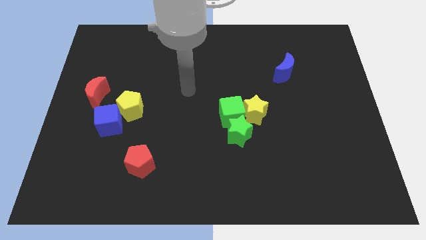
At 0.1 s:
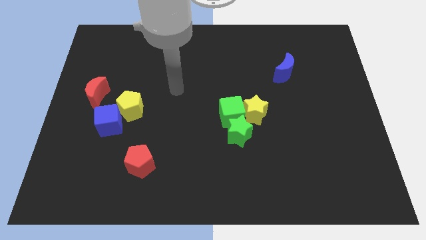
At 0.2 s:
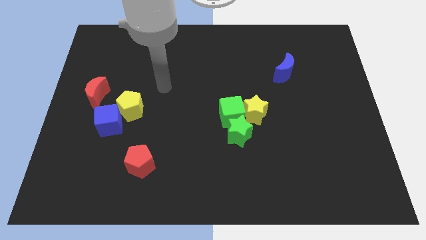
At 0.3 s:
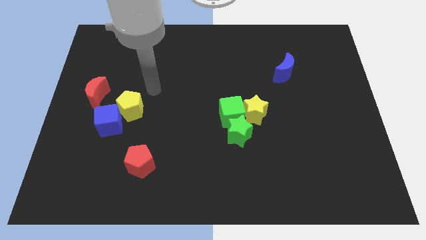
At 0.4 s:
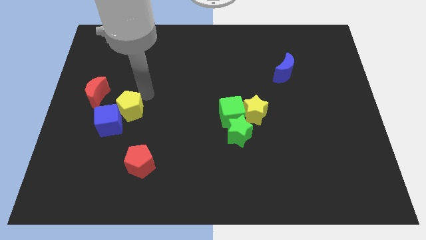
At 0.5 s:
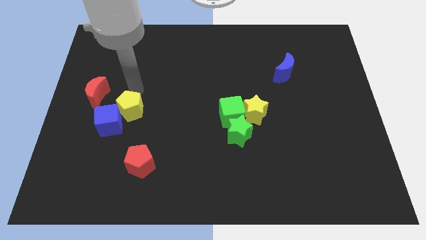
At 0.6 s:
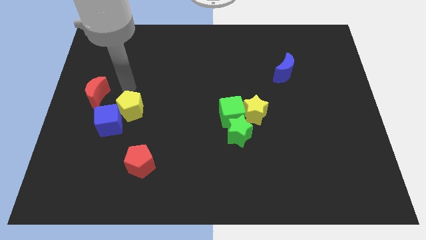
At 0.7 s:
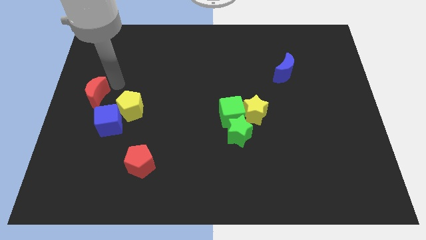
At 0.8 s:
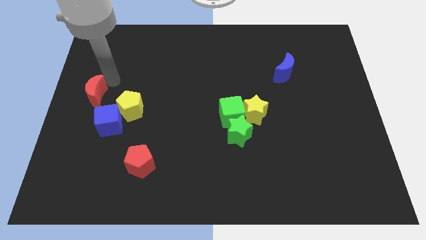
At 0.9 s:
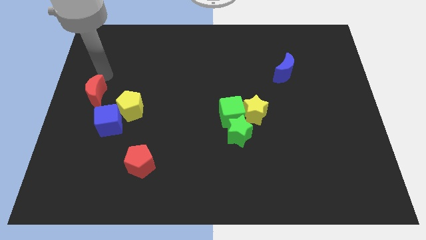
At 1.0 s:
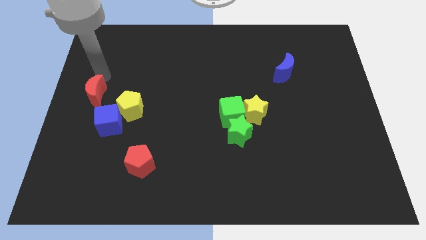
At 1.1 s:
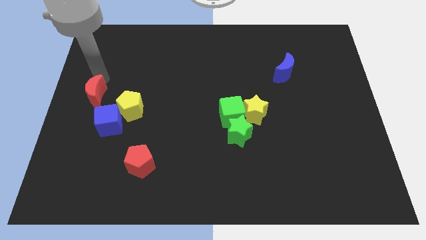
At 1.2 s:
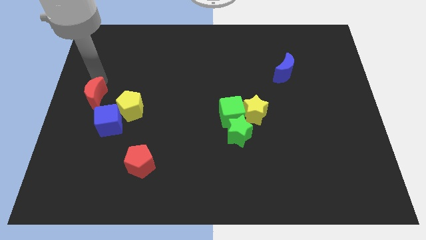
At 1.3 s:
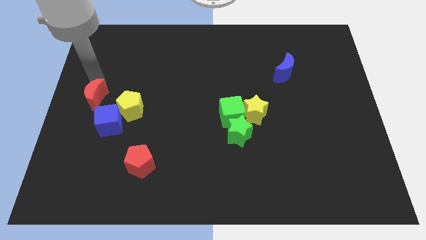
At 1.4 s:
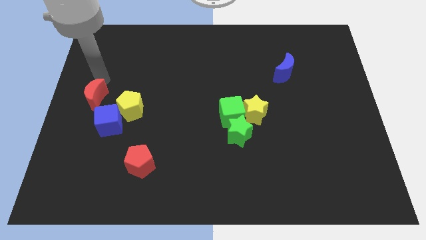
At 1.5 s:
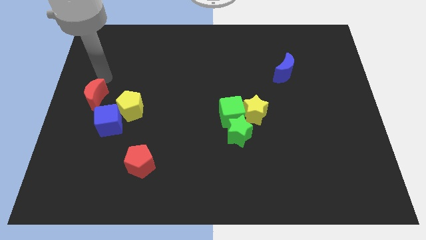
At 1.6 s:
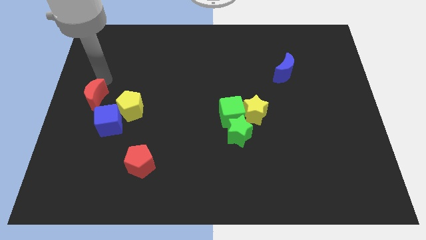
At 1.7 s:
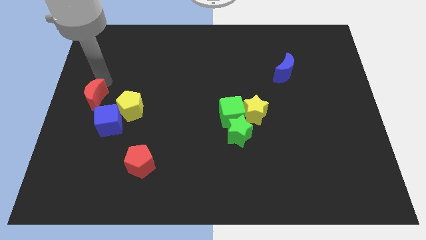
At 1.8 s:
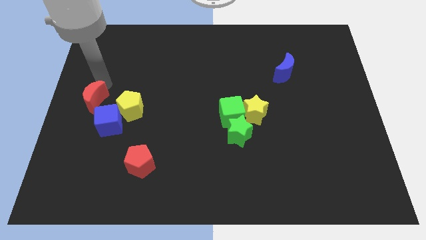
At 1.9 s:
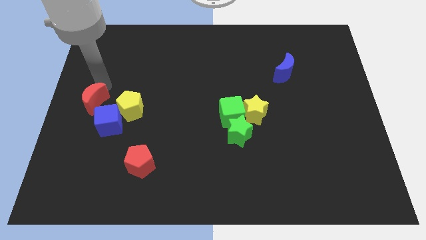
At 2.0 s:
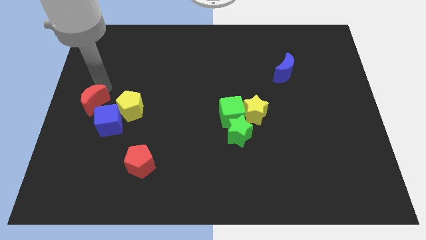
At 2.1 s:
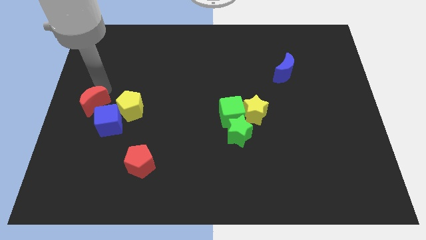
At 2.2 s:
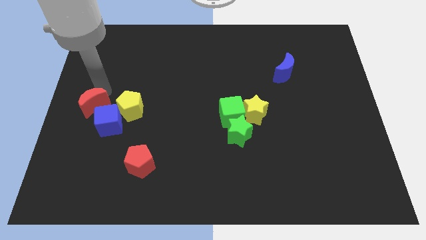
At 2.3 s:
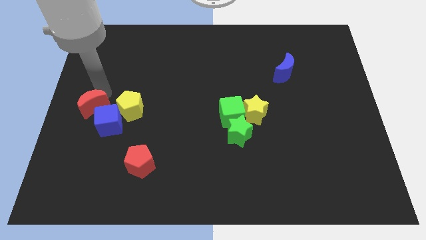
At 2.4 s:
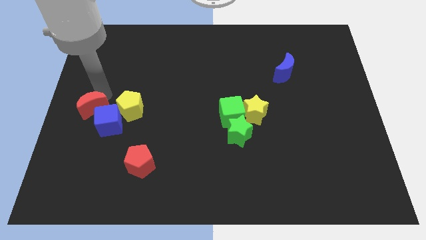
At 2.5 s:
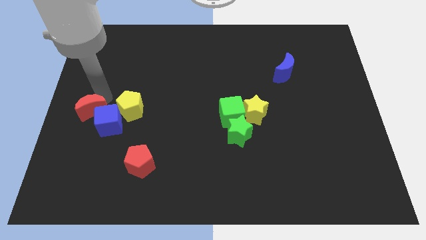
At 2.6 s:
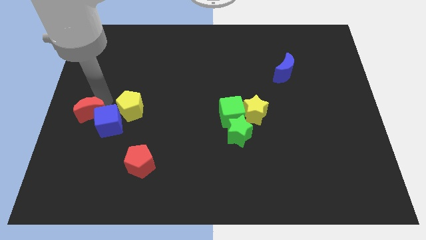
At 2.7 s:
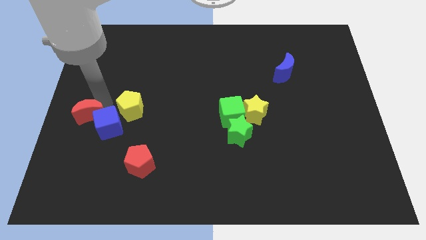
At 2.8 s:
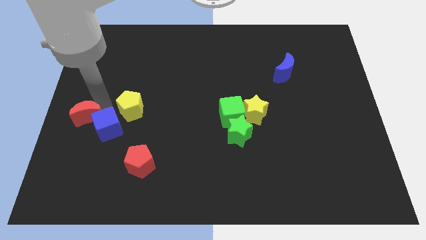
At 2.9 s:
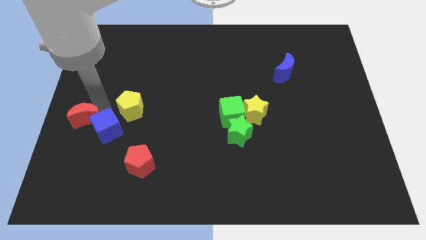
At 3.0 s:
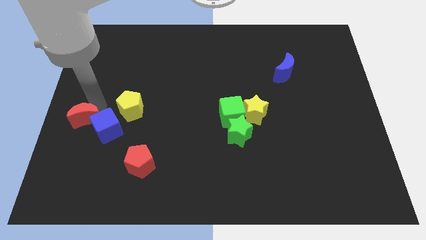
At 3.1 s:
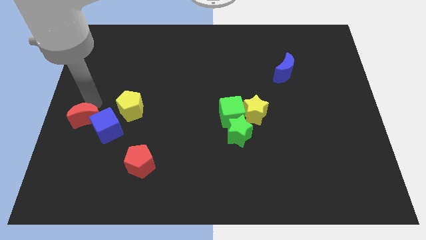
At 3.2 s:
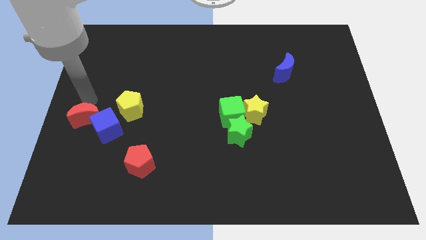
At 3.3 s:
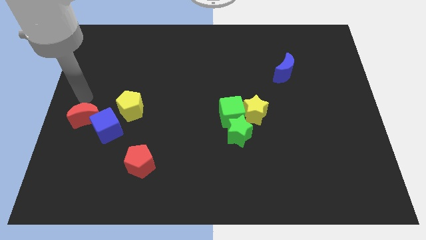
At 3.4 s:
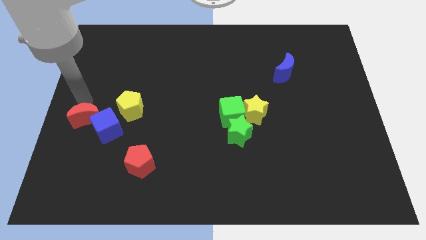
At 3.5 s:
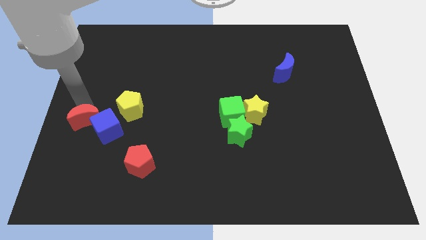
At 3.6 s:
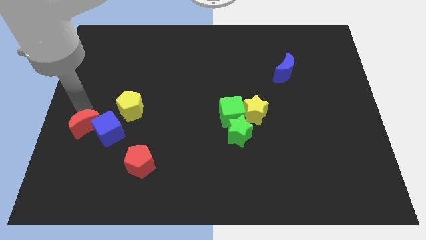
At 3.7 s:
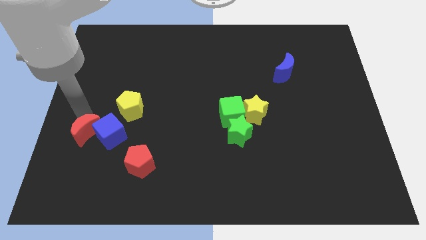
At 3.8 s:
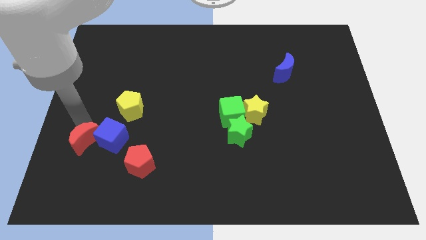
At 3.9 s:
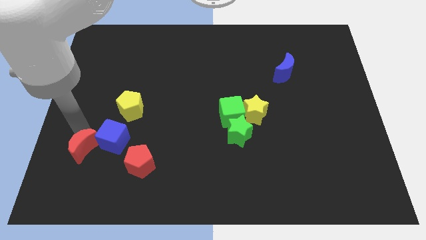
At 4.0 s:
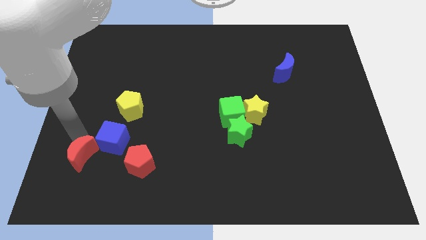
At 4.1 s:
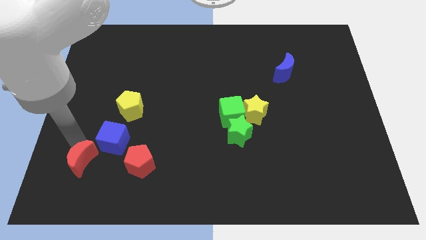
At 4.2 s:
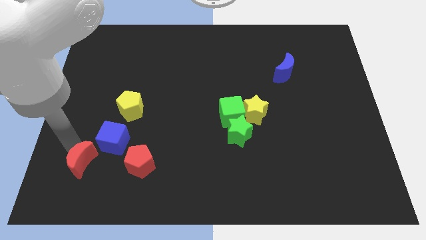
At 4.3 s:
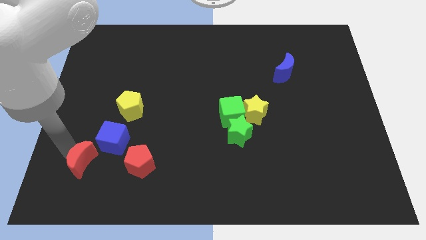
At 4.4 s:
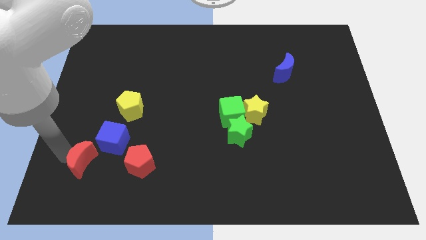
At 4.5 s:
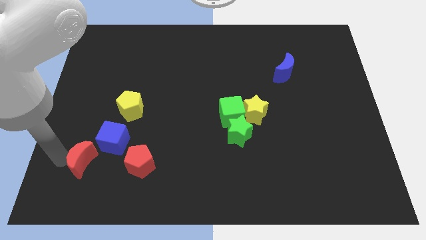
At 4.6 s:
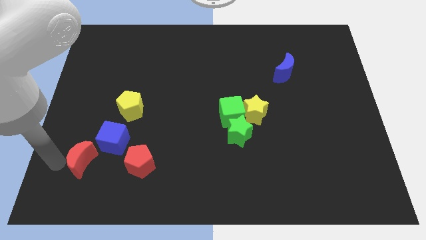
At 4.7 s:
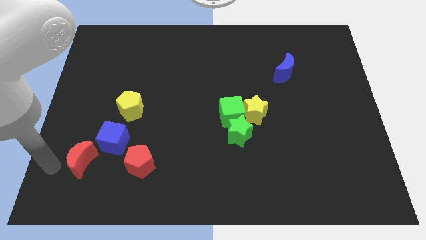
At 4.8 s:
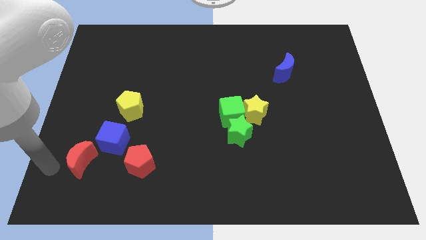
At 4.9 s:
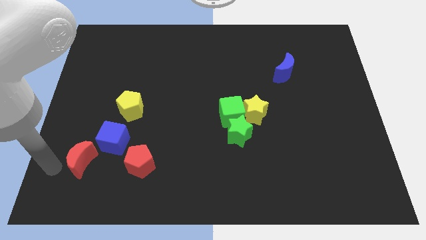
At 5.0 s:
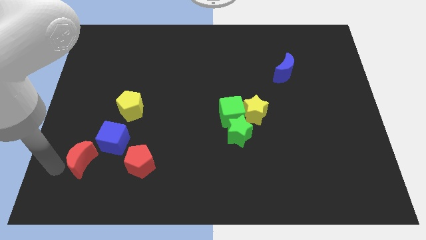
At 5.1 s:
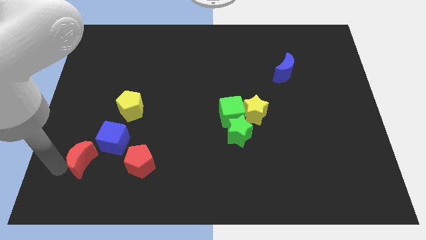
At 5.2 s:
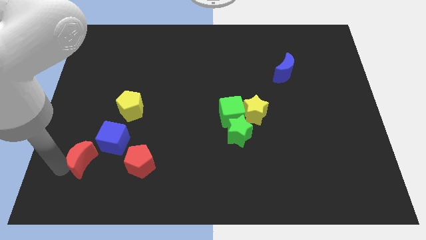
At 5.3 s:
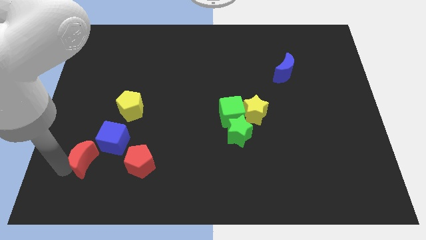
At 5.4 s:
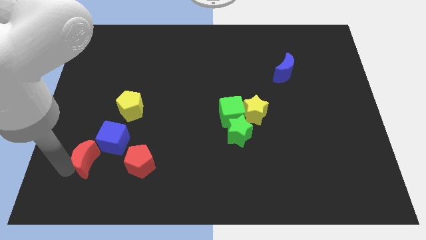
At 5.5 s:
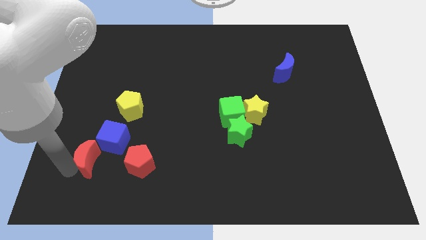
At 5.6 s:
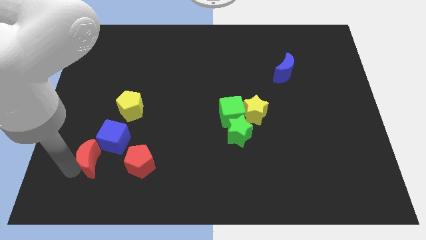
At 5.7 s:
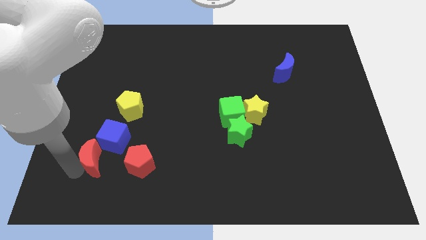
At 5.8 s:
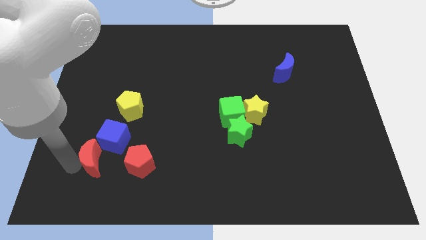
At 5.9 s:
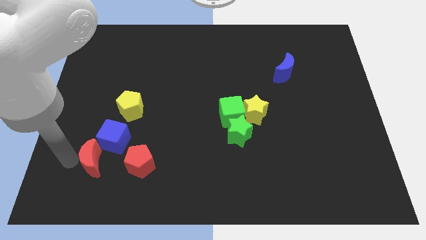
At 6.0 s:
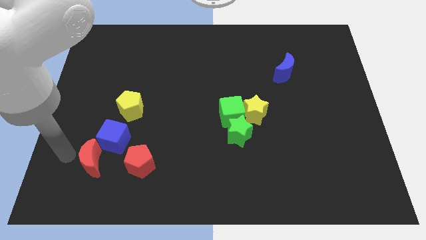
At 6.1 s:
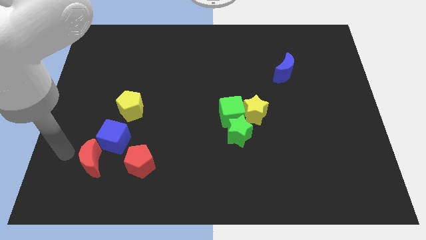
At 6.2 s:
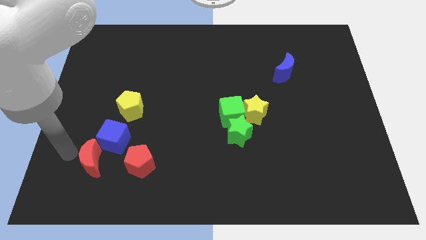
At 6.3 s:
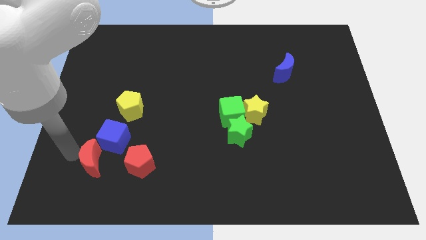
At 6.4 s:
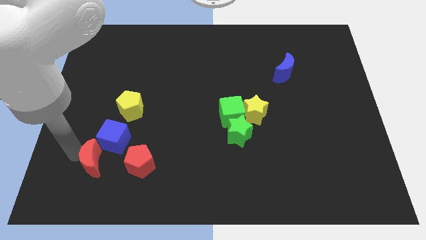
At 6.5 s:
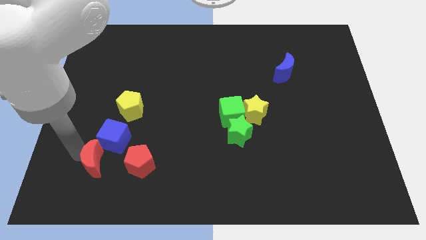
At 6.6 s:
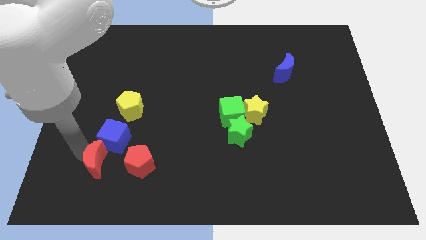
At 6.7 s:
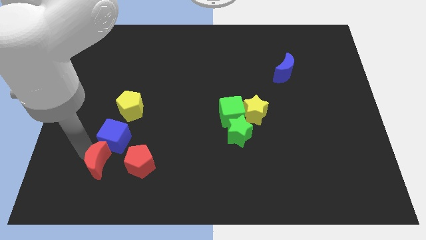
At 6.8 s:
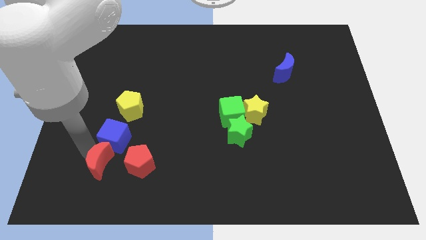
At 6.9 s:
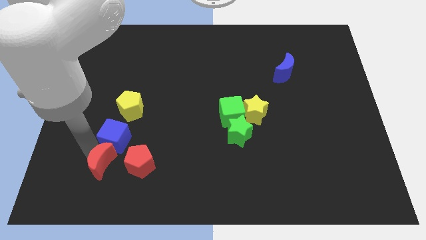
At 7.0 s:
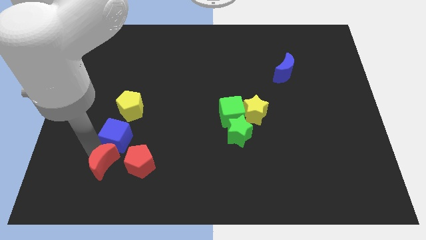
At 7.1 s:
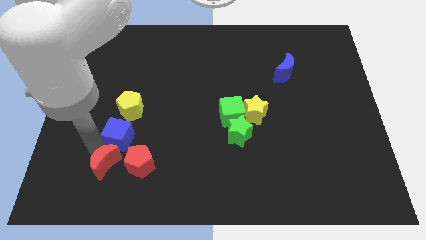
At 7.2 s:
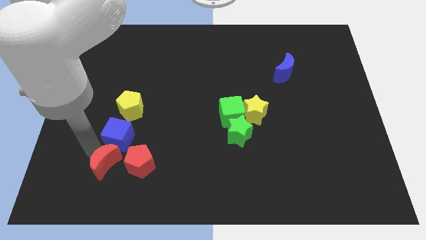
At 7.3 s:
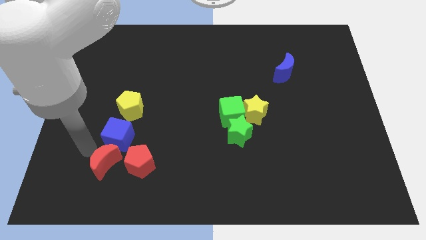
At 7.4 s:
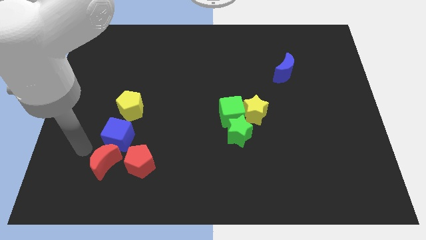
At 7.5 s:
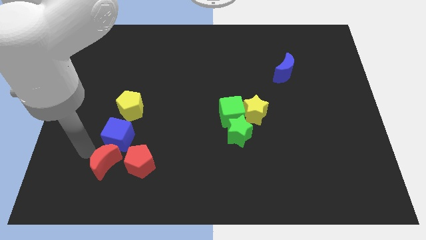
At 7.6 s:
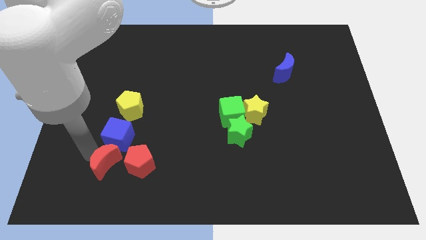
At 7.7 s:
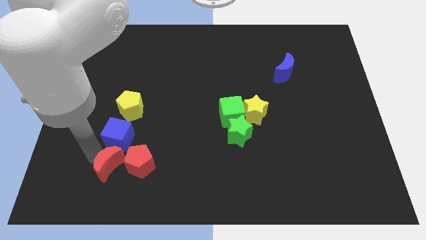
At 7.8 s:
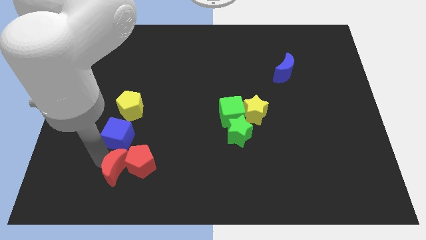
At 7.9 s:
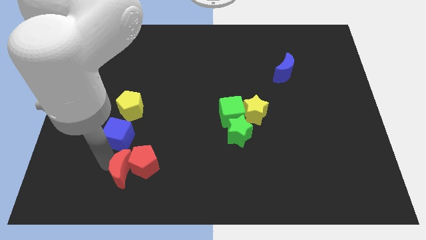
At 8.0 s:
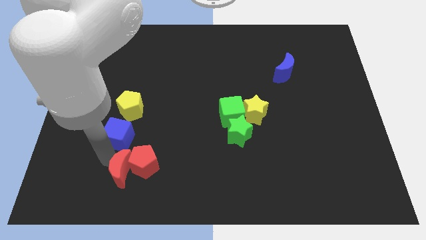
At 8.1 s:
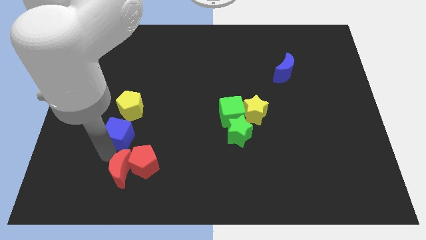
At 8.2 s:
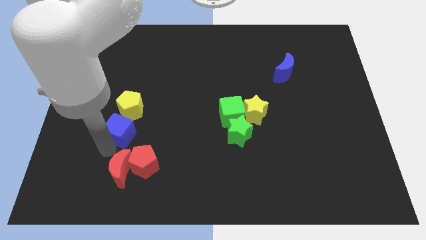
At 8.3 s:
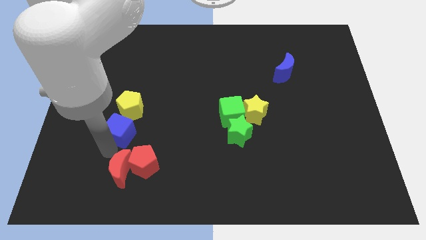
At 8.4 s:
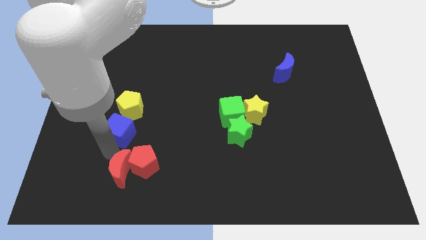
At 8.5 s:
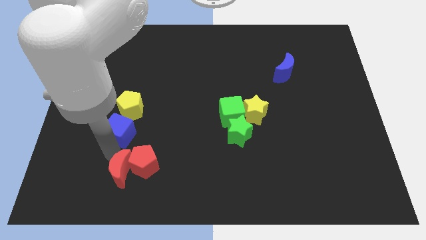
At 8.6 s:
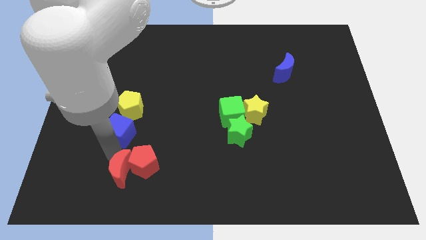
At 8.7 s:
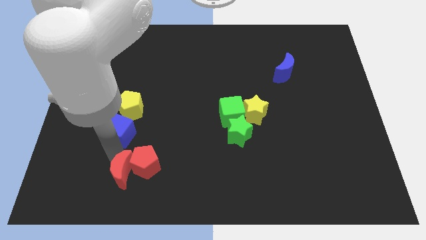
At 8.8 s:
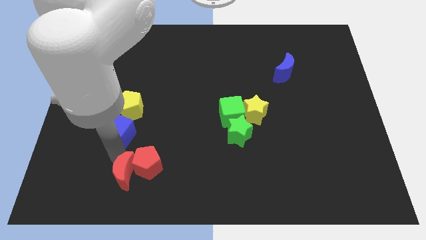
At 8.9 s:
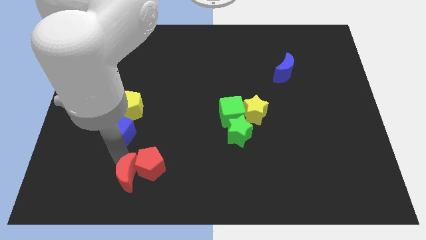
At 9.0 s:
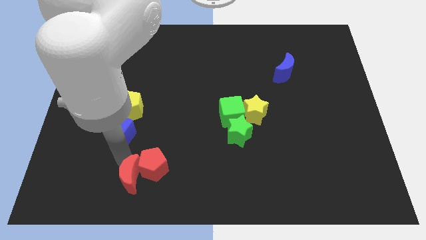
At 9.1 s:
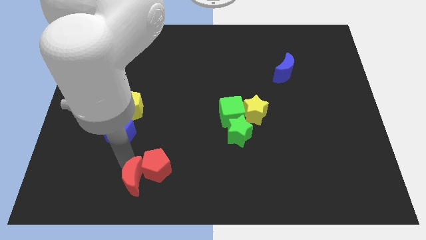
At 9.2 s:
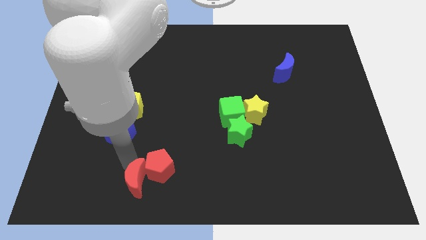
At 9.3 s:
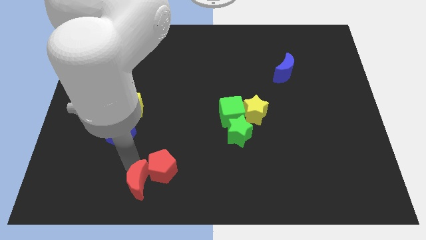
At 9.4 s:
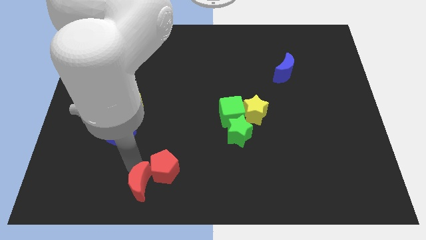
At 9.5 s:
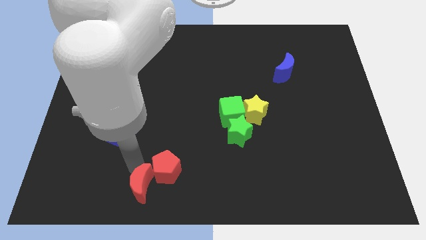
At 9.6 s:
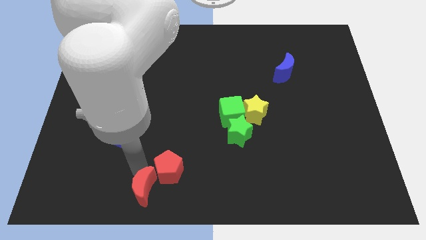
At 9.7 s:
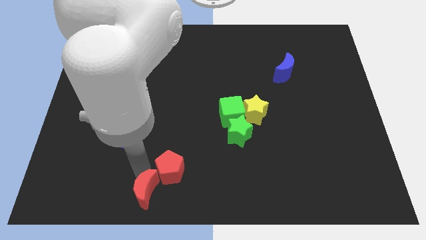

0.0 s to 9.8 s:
slide the red moon to the bottom
